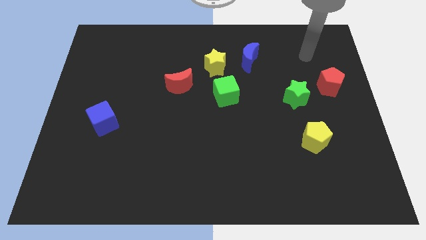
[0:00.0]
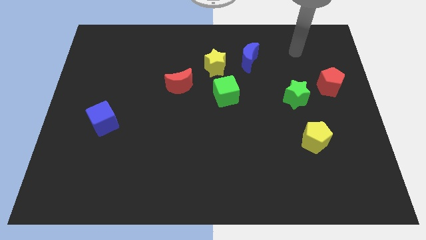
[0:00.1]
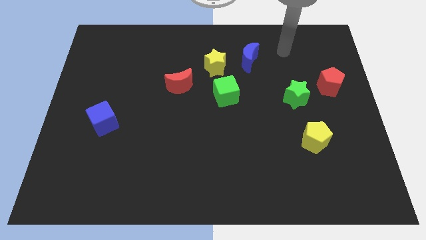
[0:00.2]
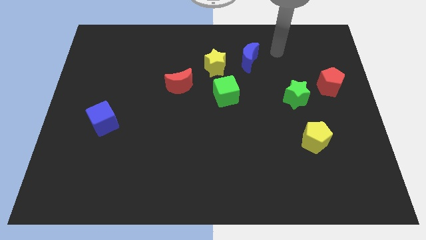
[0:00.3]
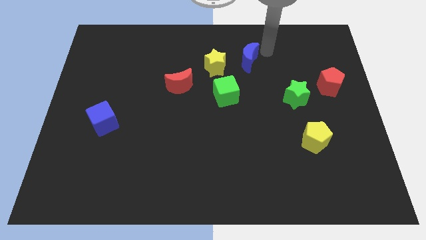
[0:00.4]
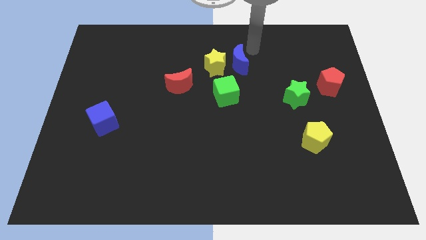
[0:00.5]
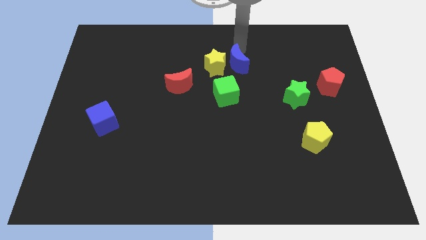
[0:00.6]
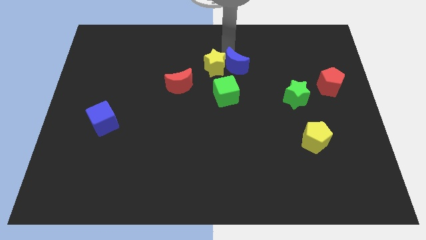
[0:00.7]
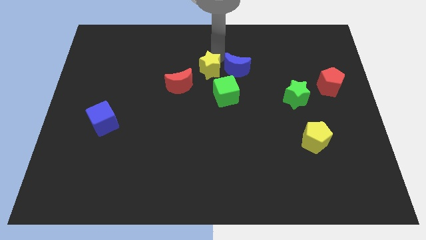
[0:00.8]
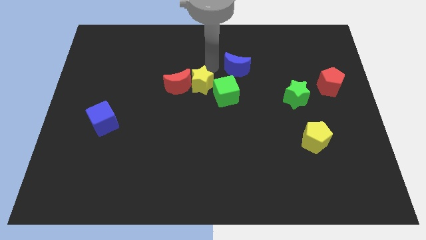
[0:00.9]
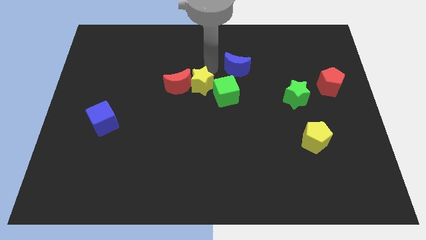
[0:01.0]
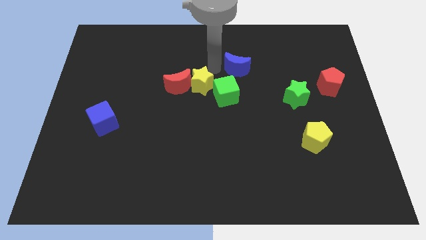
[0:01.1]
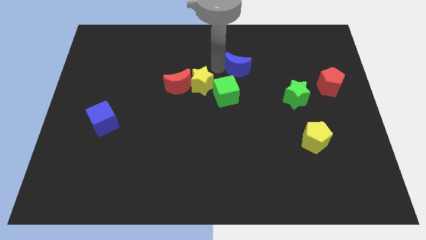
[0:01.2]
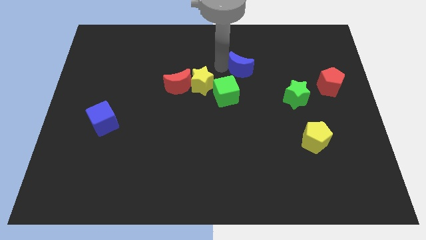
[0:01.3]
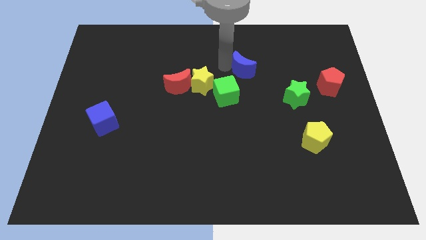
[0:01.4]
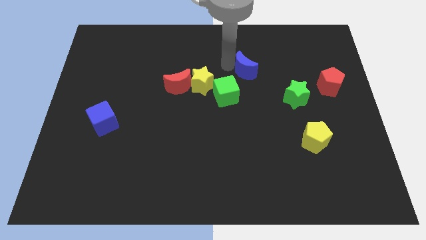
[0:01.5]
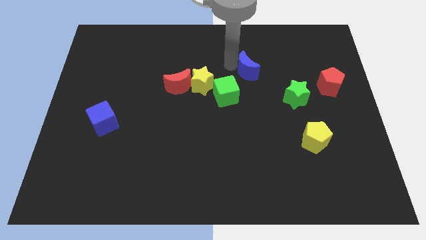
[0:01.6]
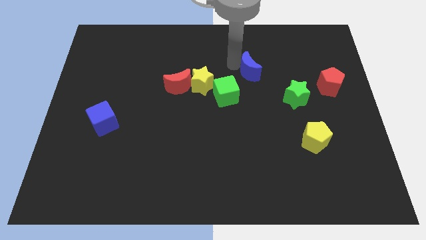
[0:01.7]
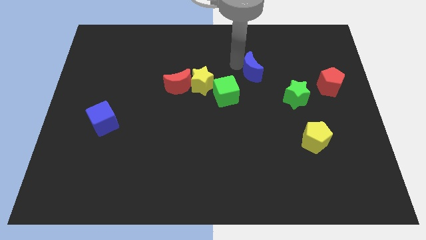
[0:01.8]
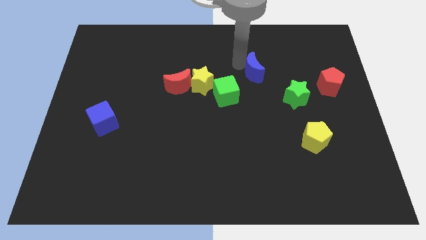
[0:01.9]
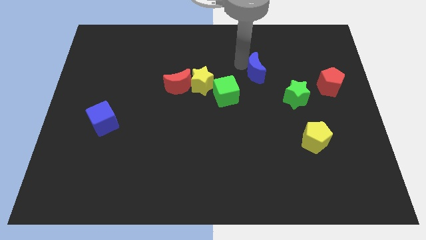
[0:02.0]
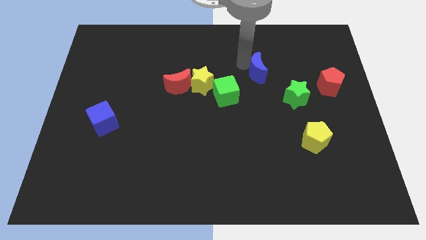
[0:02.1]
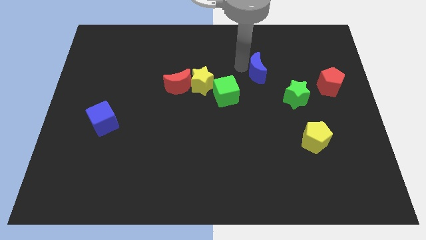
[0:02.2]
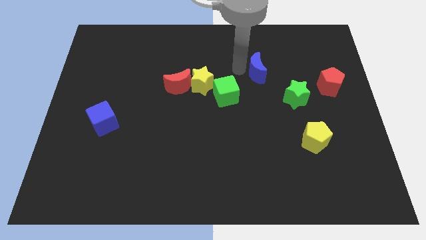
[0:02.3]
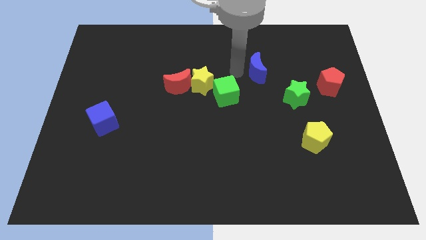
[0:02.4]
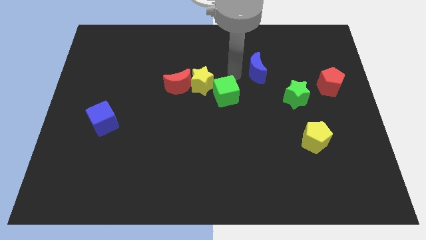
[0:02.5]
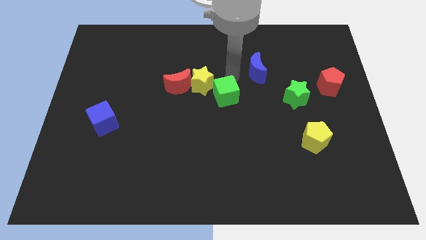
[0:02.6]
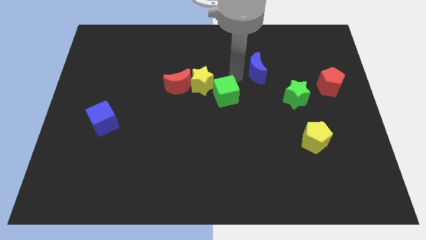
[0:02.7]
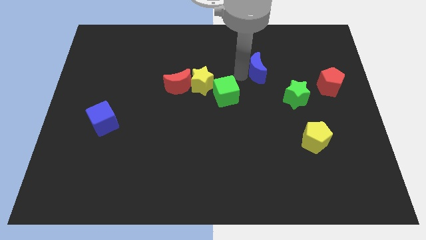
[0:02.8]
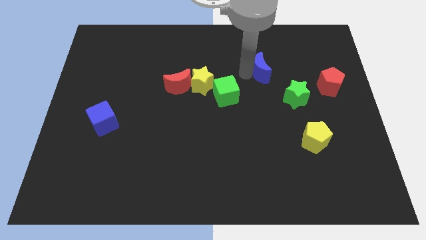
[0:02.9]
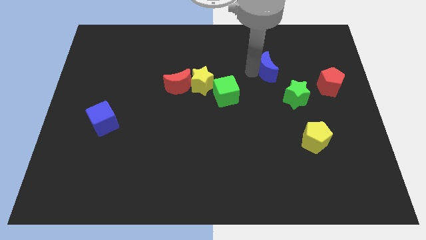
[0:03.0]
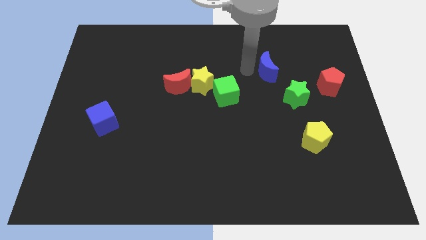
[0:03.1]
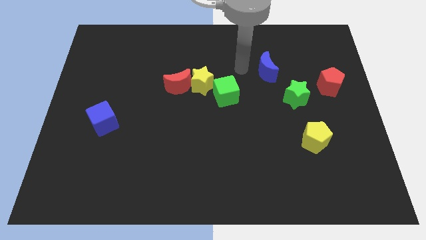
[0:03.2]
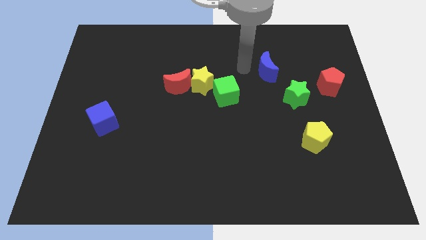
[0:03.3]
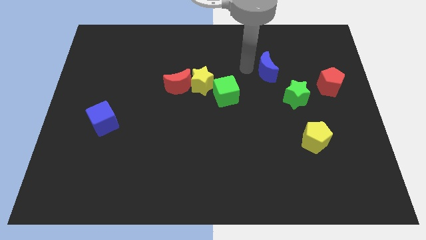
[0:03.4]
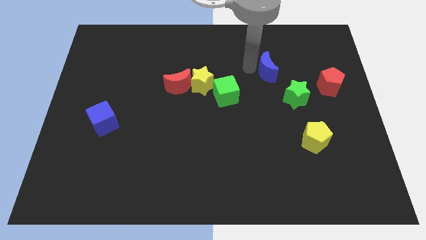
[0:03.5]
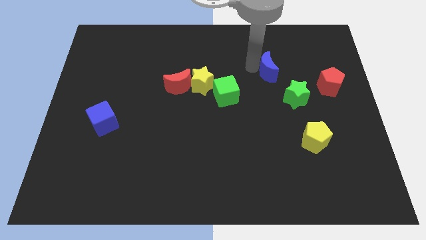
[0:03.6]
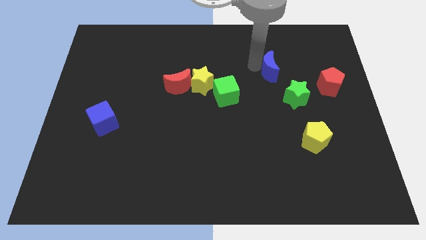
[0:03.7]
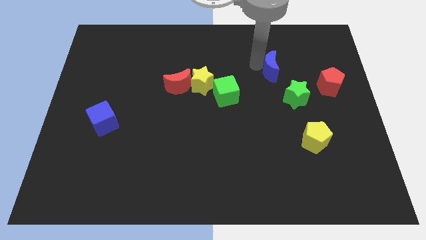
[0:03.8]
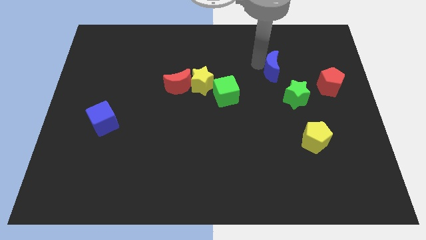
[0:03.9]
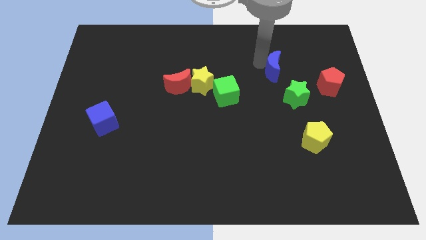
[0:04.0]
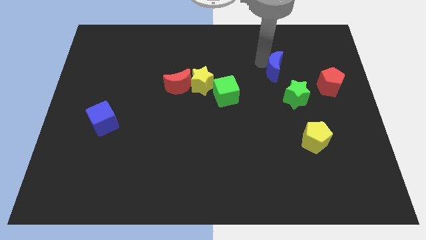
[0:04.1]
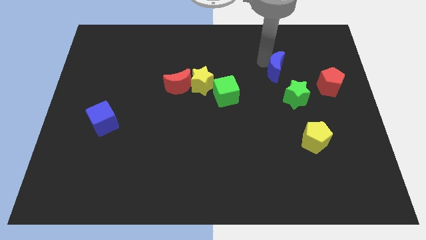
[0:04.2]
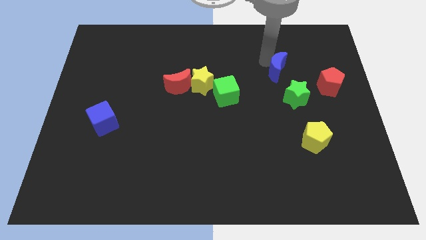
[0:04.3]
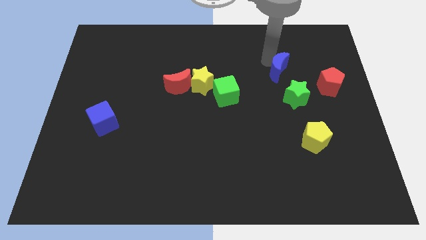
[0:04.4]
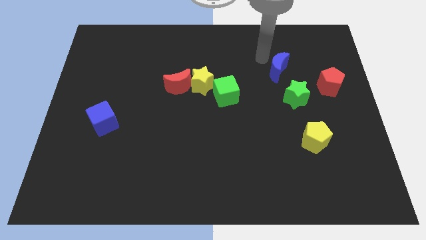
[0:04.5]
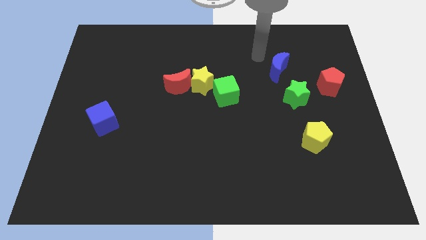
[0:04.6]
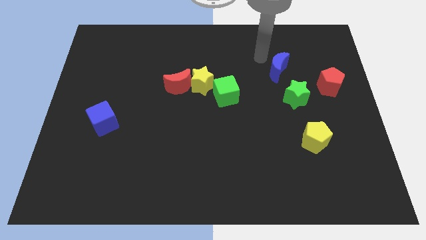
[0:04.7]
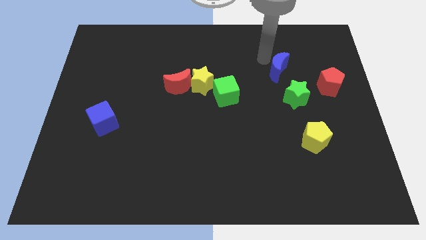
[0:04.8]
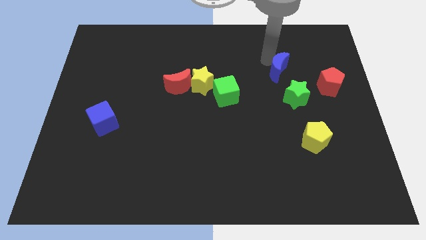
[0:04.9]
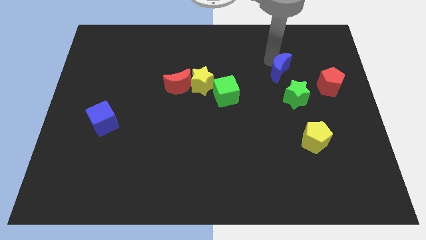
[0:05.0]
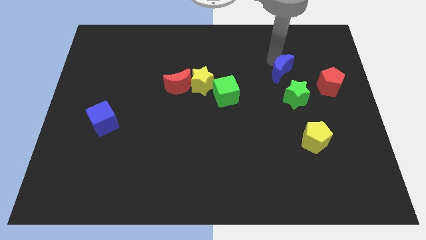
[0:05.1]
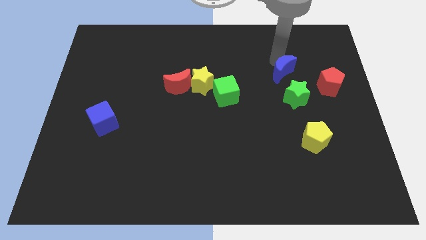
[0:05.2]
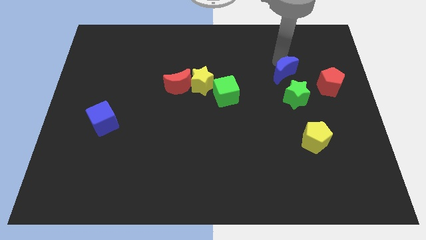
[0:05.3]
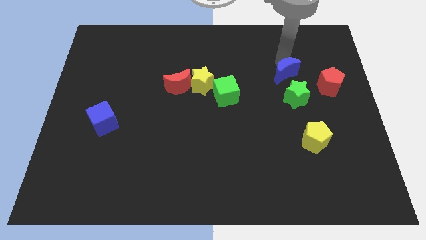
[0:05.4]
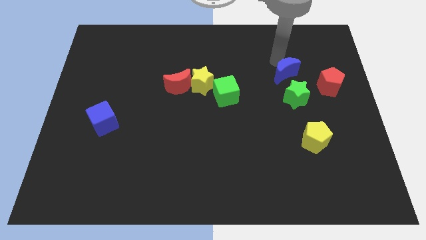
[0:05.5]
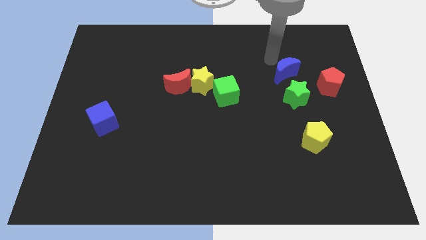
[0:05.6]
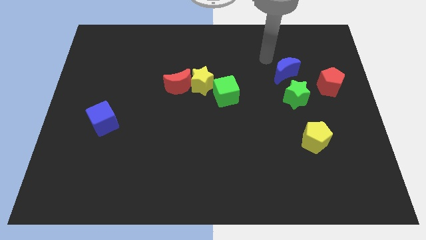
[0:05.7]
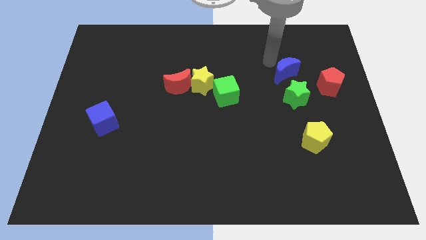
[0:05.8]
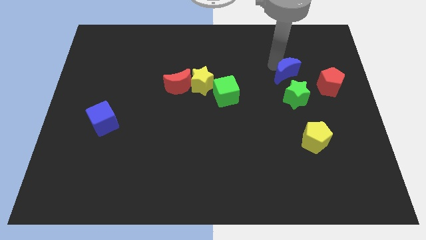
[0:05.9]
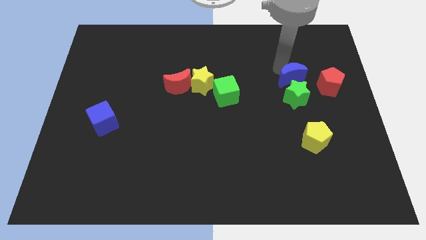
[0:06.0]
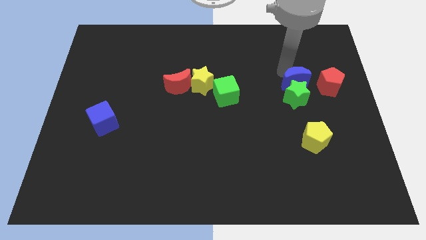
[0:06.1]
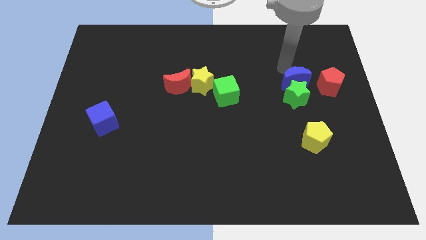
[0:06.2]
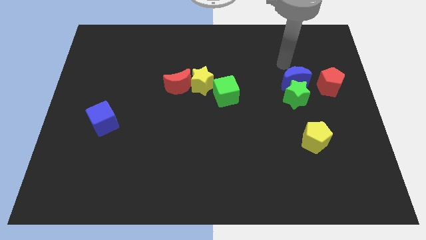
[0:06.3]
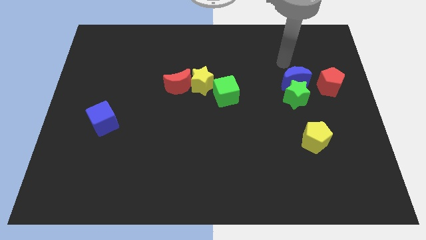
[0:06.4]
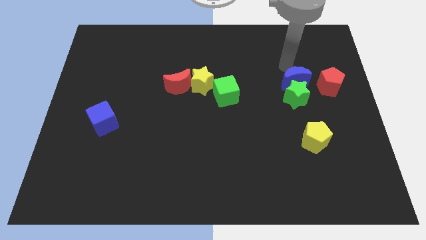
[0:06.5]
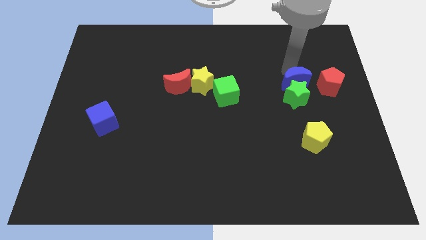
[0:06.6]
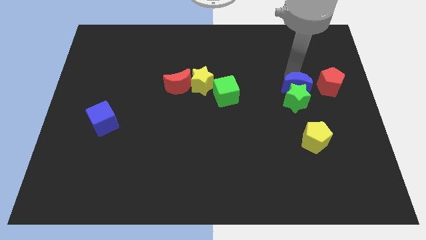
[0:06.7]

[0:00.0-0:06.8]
move the blue moon to the top of the yellow pentagon

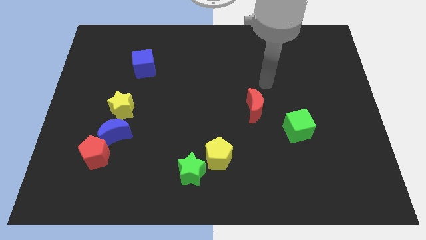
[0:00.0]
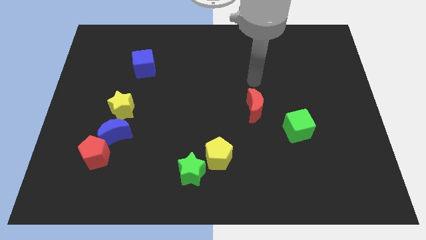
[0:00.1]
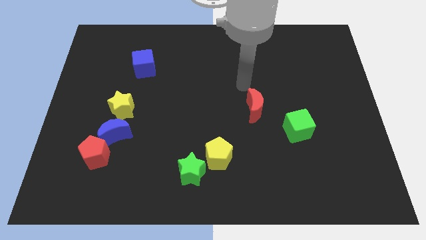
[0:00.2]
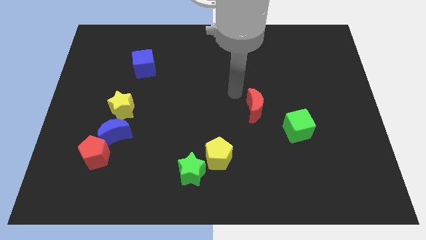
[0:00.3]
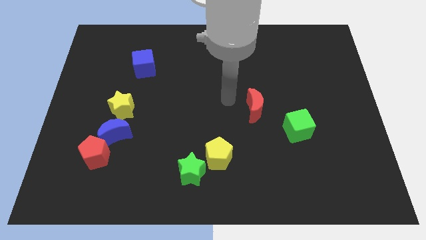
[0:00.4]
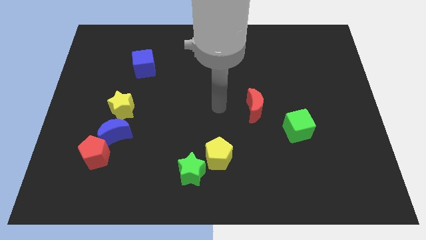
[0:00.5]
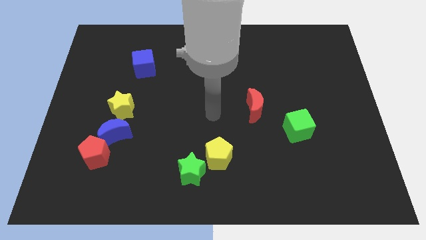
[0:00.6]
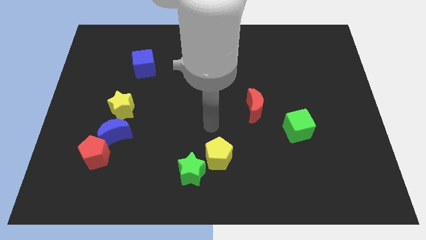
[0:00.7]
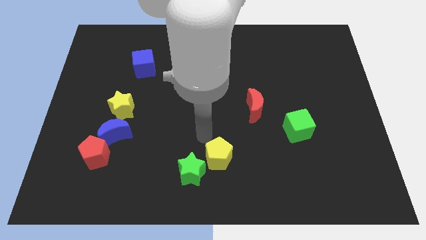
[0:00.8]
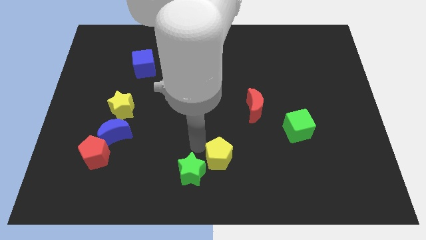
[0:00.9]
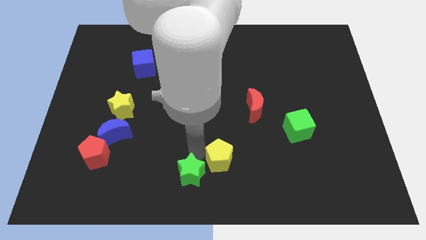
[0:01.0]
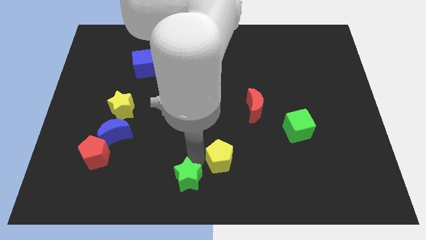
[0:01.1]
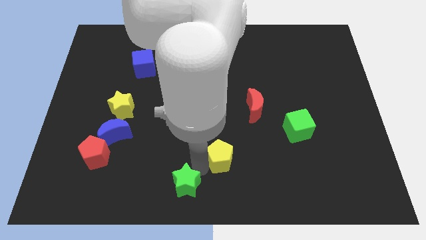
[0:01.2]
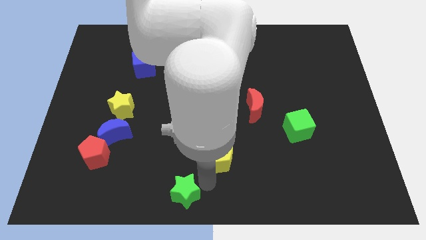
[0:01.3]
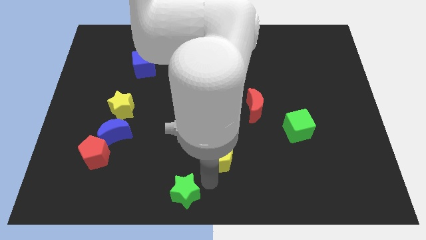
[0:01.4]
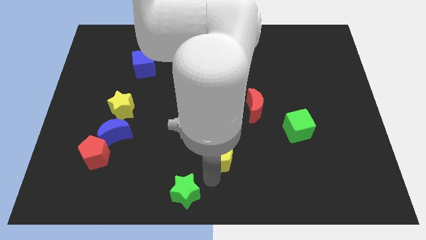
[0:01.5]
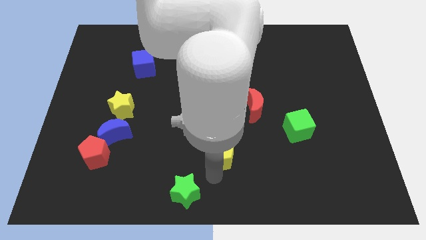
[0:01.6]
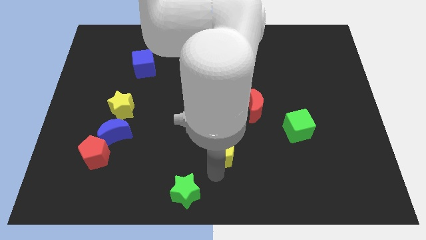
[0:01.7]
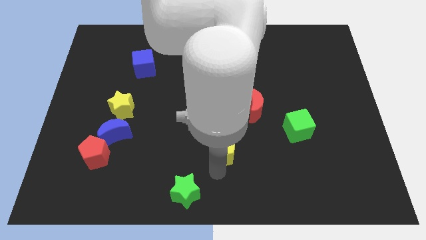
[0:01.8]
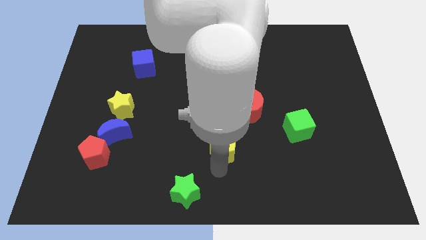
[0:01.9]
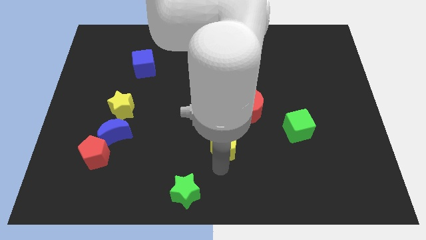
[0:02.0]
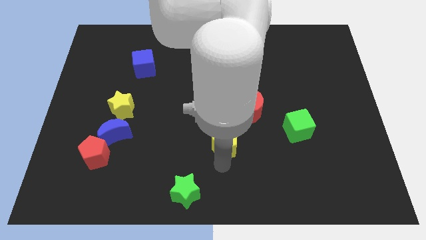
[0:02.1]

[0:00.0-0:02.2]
push the yellow pentagon to the bottom left side of the red moon
